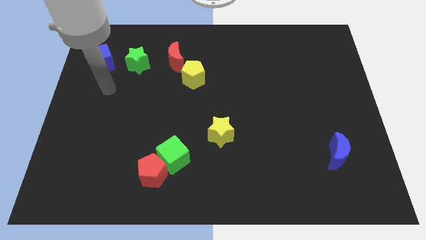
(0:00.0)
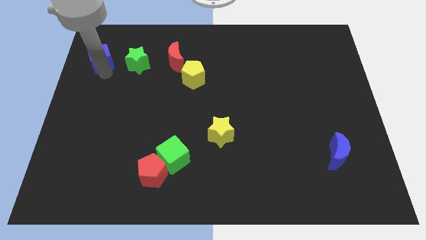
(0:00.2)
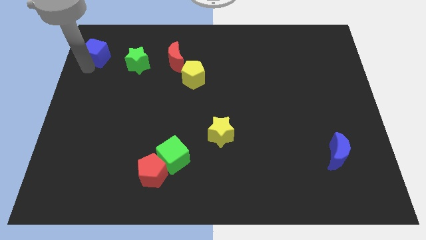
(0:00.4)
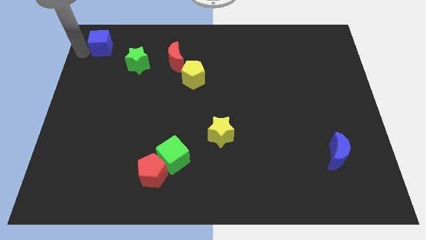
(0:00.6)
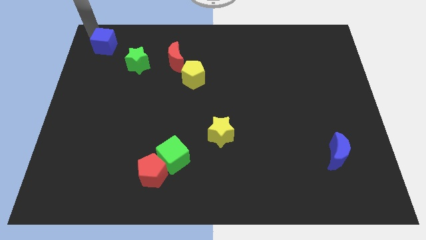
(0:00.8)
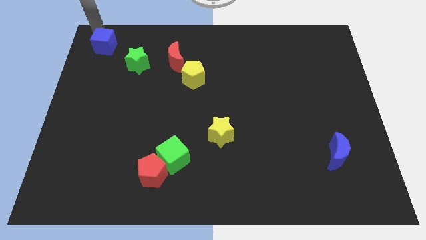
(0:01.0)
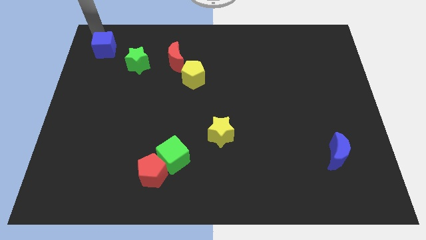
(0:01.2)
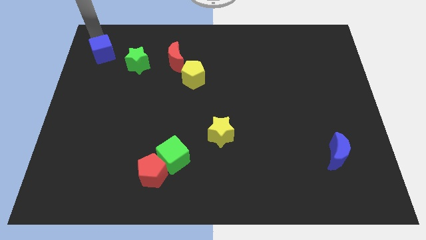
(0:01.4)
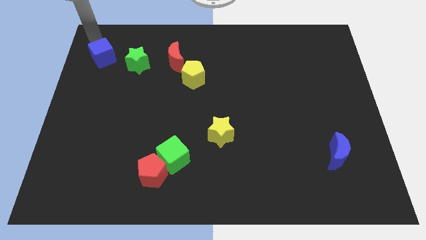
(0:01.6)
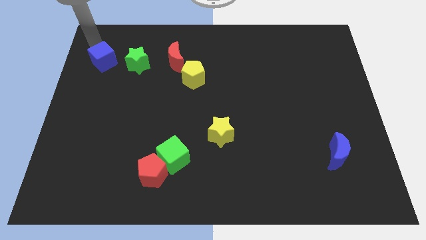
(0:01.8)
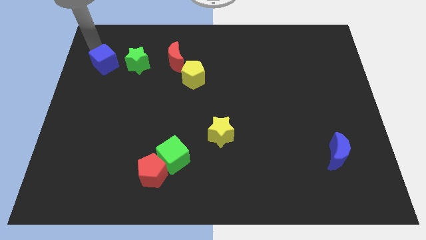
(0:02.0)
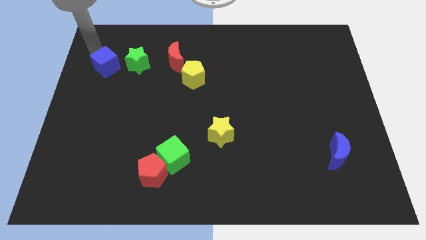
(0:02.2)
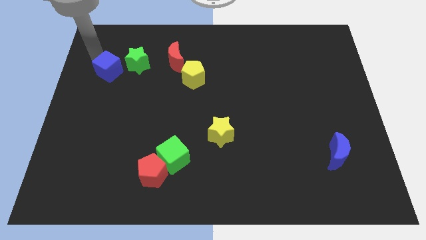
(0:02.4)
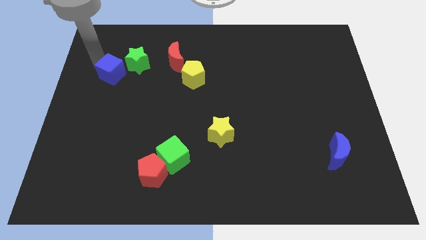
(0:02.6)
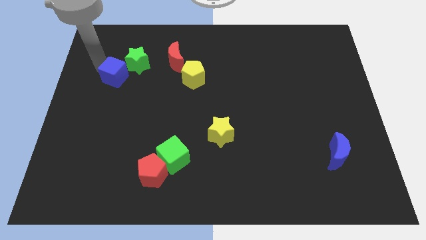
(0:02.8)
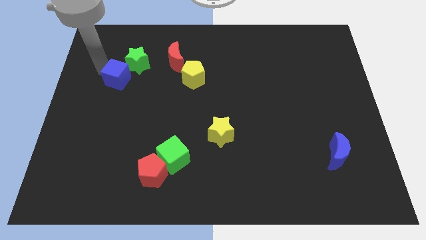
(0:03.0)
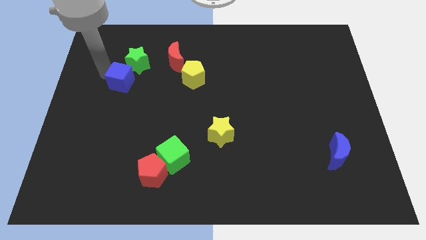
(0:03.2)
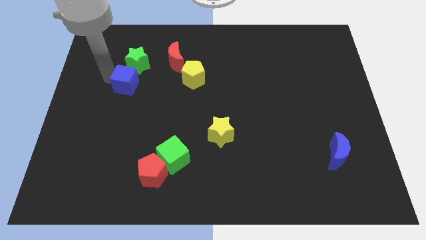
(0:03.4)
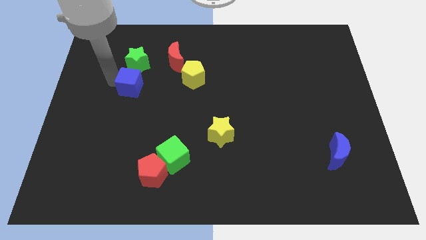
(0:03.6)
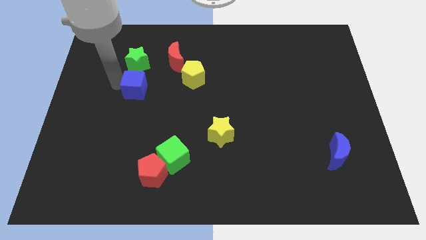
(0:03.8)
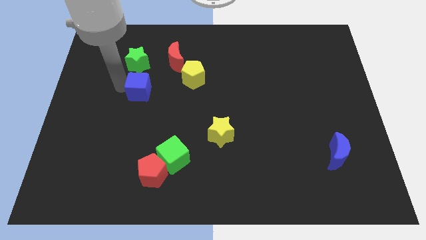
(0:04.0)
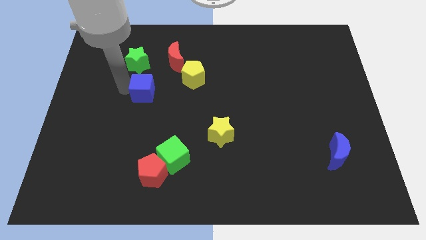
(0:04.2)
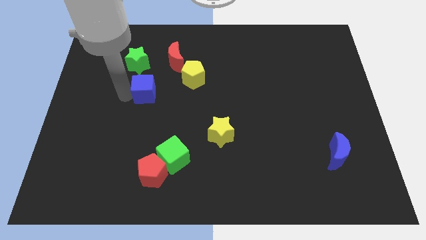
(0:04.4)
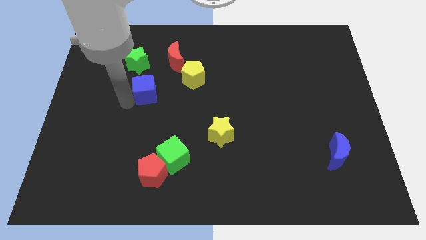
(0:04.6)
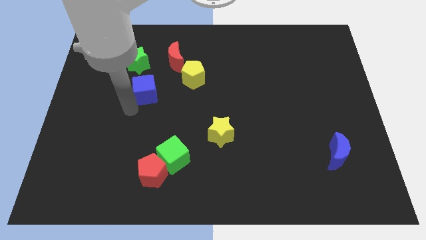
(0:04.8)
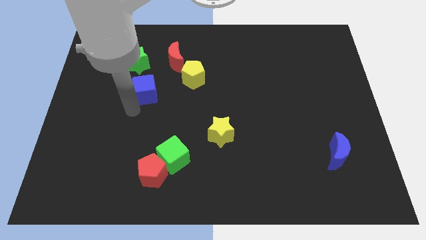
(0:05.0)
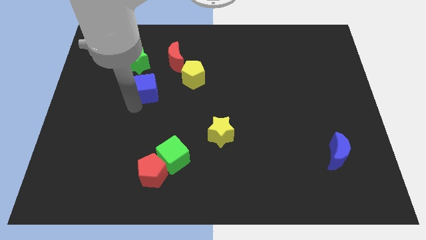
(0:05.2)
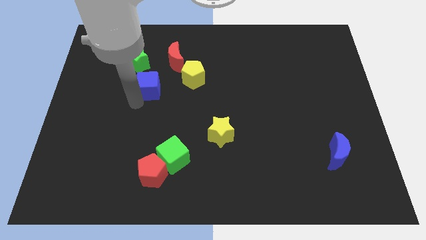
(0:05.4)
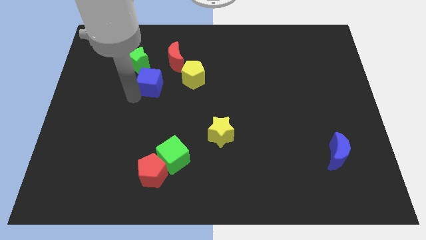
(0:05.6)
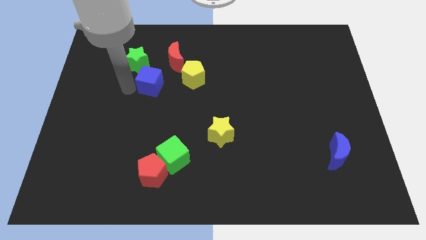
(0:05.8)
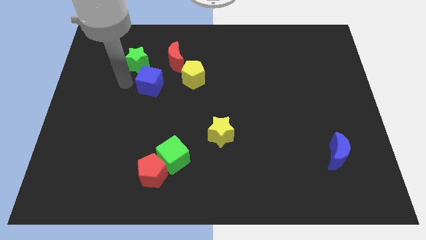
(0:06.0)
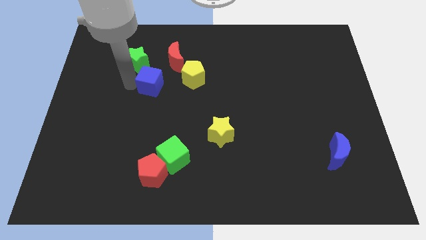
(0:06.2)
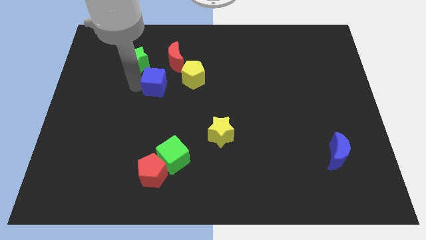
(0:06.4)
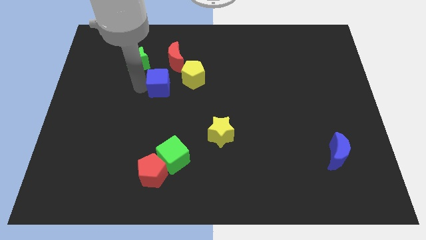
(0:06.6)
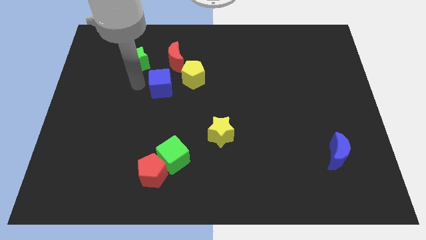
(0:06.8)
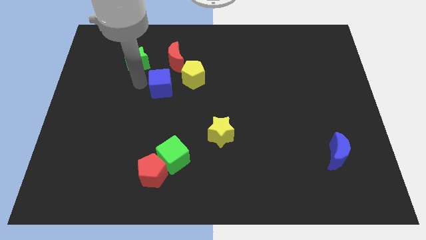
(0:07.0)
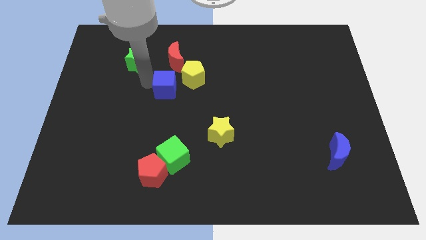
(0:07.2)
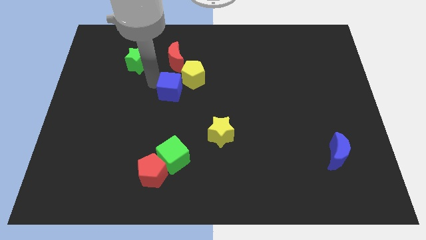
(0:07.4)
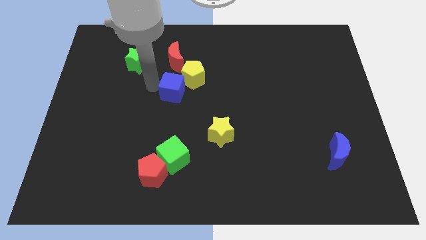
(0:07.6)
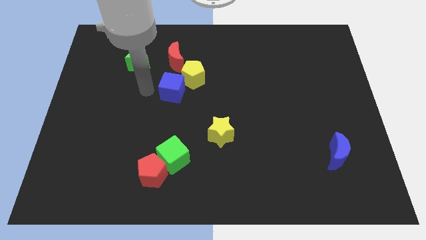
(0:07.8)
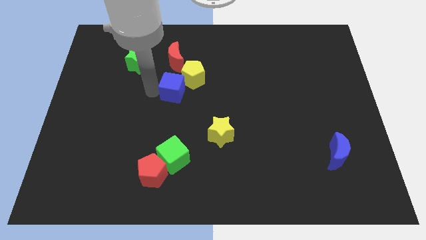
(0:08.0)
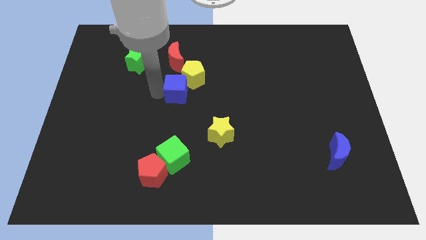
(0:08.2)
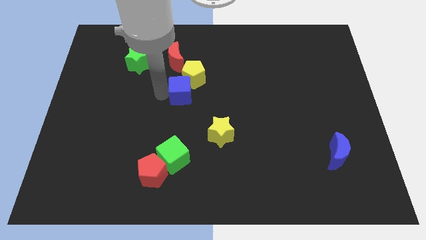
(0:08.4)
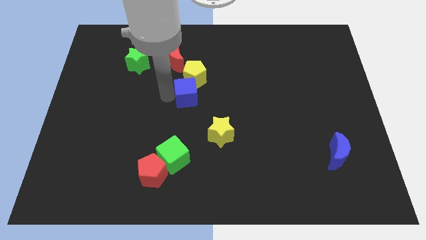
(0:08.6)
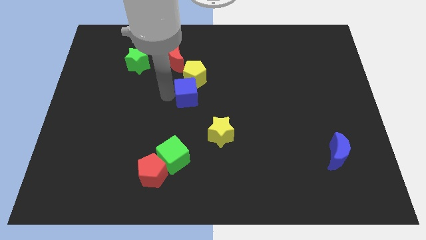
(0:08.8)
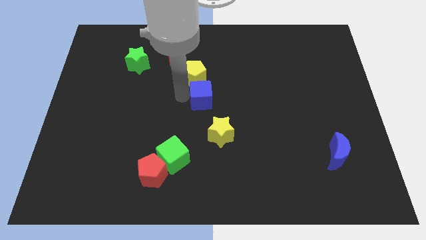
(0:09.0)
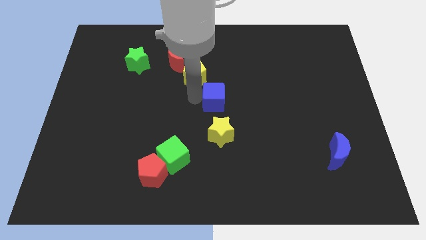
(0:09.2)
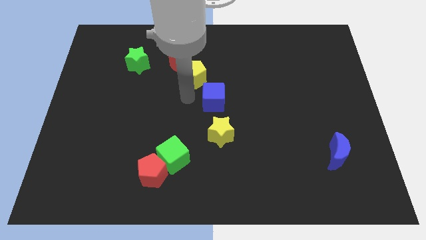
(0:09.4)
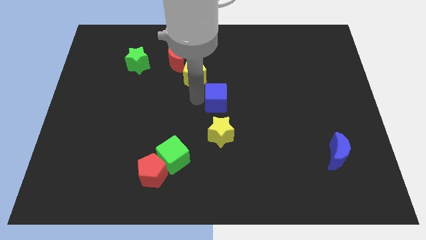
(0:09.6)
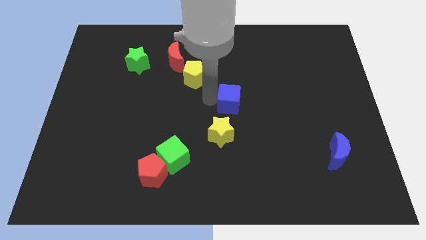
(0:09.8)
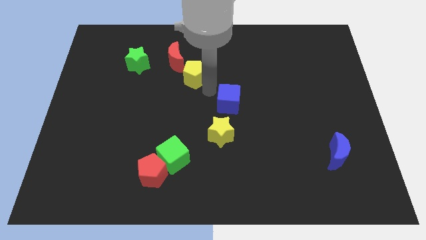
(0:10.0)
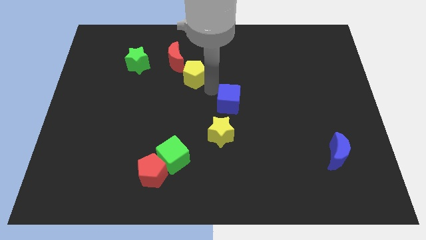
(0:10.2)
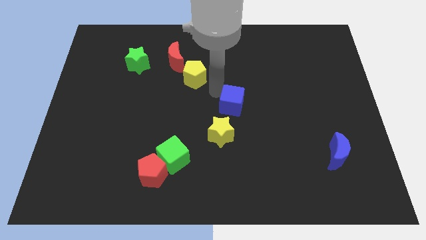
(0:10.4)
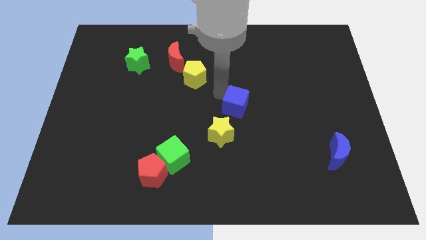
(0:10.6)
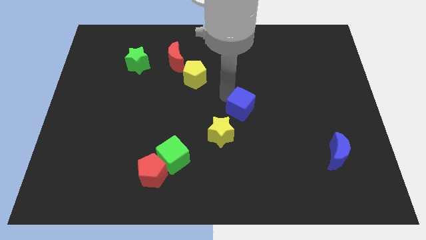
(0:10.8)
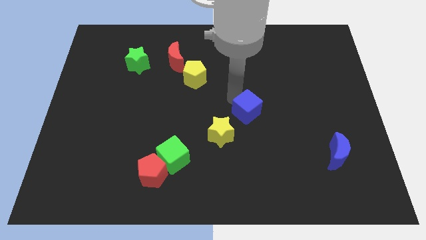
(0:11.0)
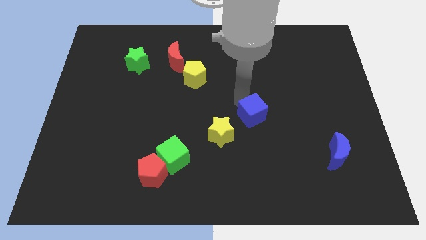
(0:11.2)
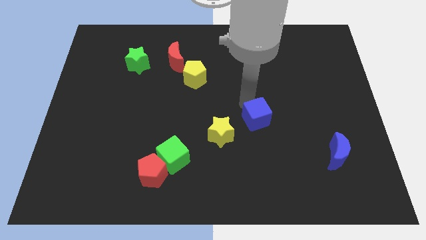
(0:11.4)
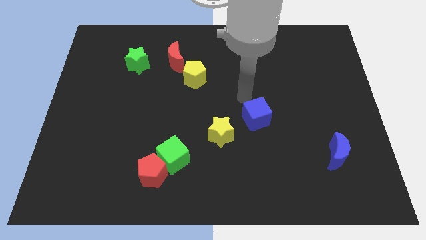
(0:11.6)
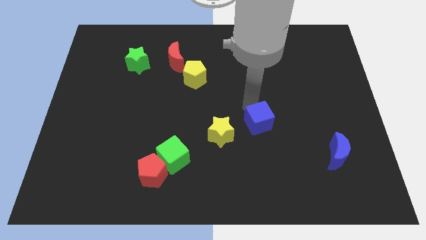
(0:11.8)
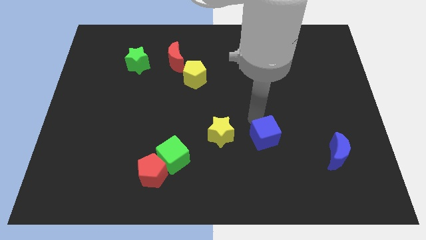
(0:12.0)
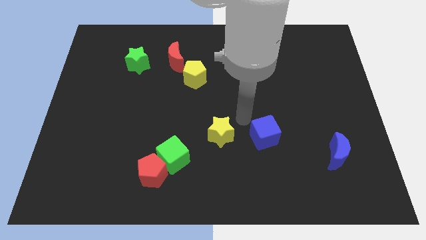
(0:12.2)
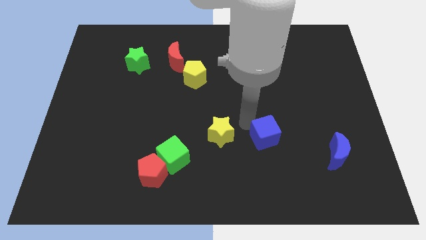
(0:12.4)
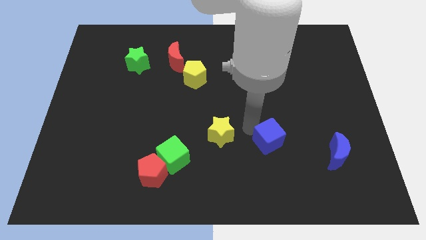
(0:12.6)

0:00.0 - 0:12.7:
push the blue cube to the left of the blue moon

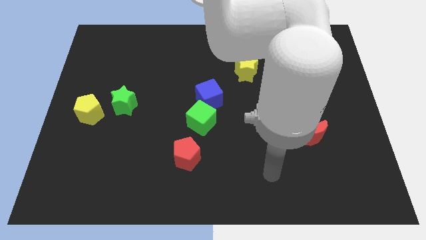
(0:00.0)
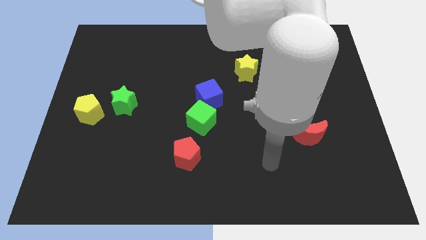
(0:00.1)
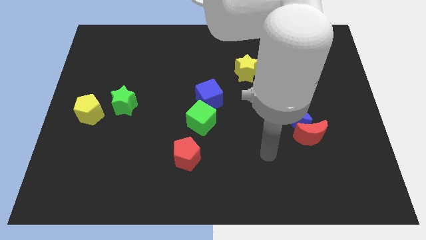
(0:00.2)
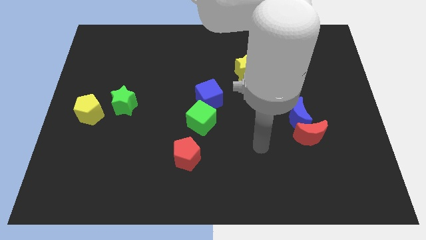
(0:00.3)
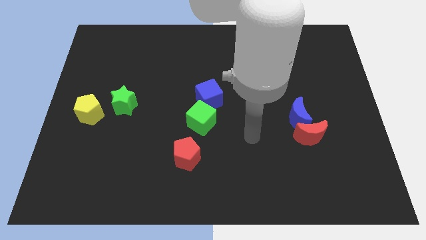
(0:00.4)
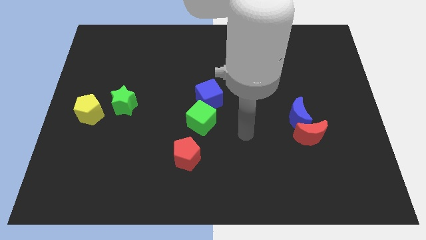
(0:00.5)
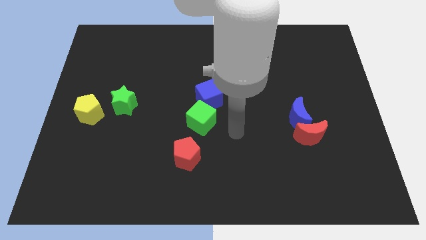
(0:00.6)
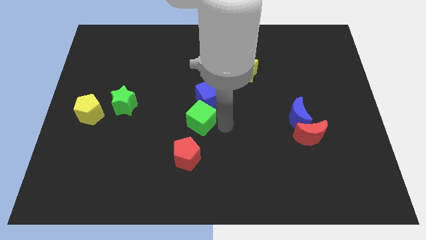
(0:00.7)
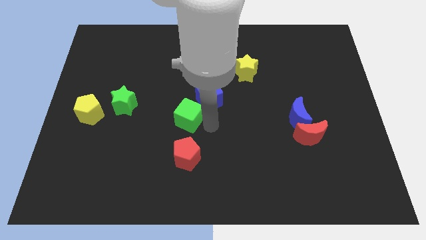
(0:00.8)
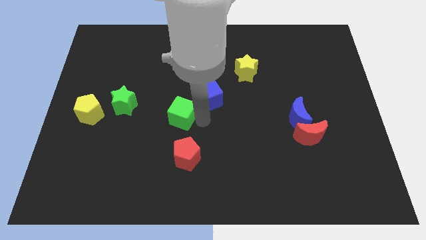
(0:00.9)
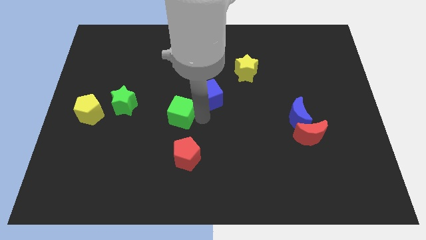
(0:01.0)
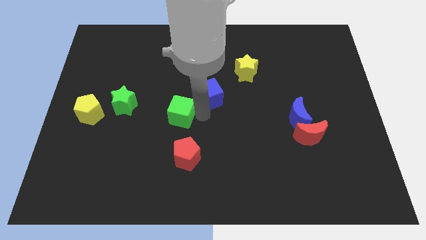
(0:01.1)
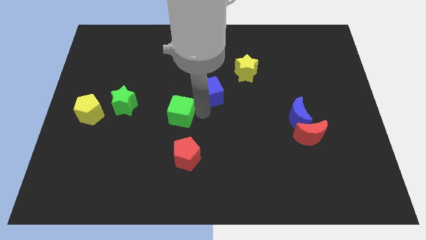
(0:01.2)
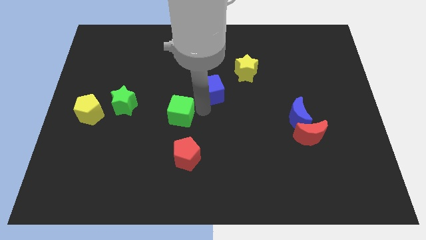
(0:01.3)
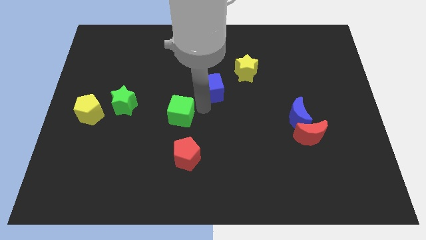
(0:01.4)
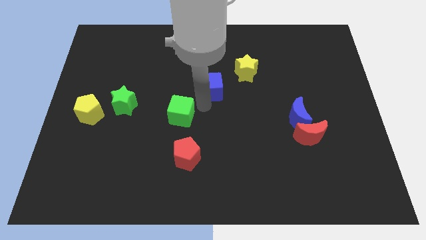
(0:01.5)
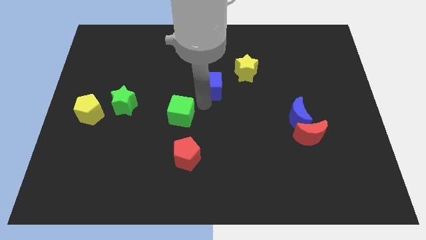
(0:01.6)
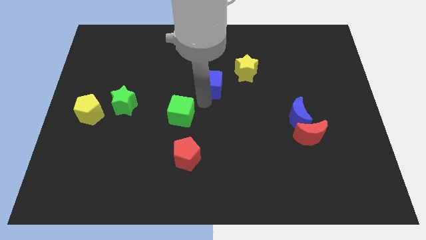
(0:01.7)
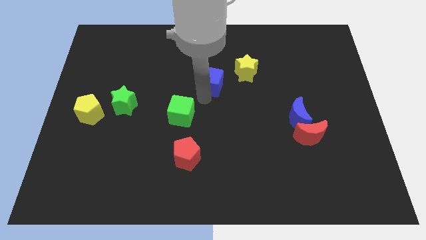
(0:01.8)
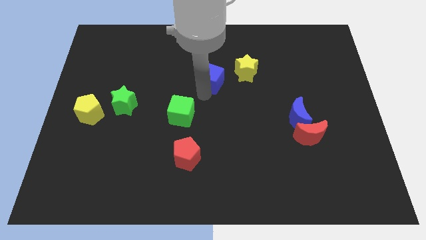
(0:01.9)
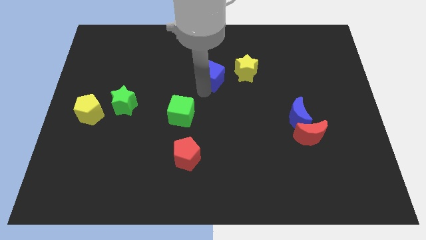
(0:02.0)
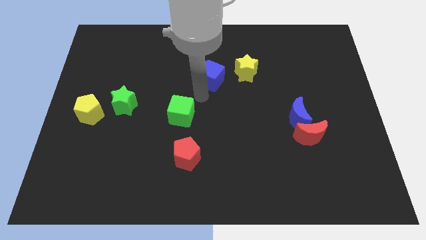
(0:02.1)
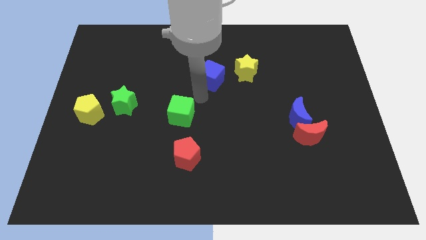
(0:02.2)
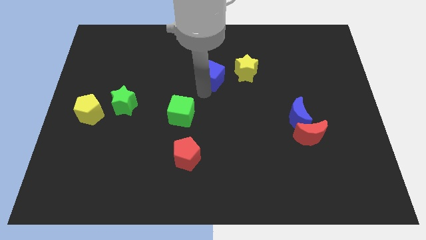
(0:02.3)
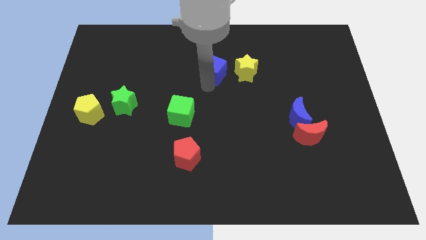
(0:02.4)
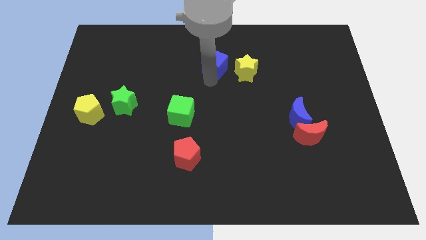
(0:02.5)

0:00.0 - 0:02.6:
put the blue cube to the top left side of the yellow star
